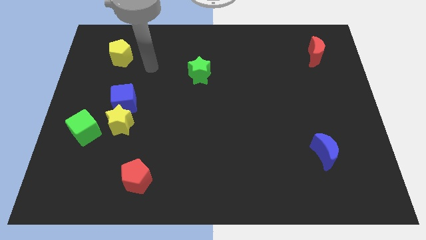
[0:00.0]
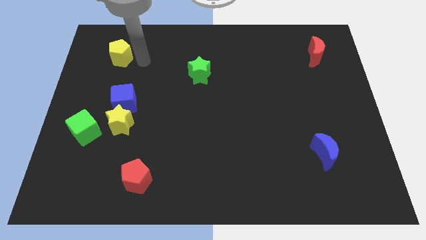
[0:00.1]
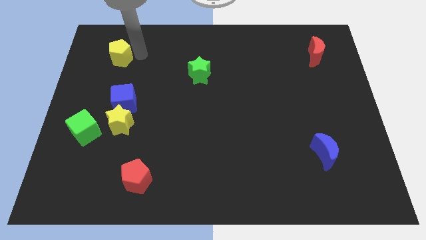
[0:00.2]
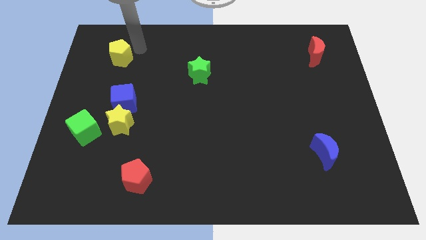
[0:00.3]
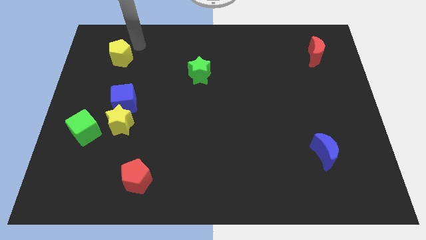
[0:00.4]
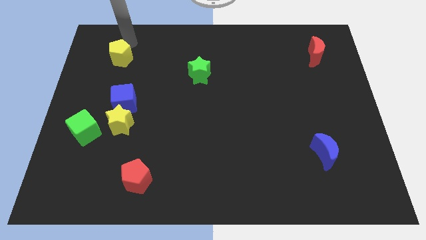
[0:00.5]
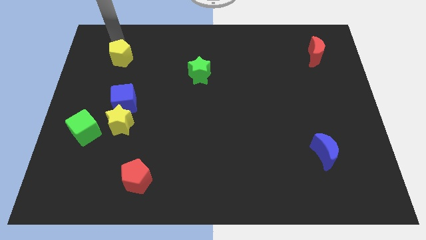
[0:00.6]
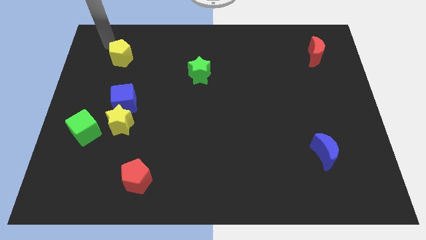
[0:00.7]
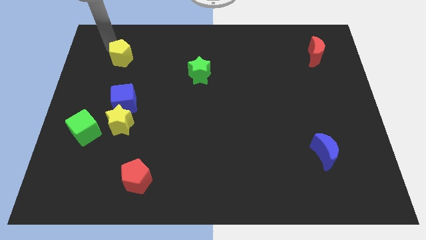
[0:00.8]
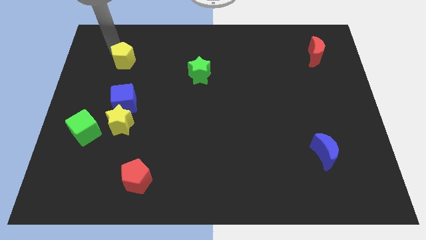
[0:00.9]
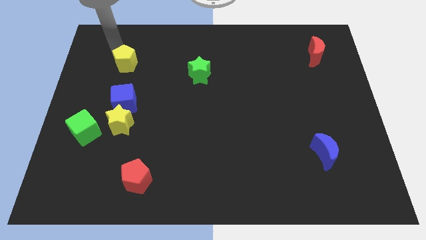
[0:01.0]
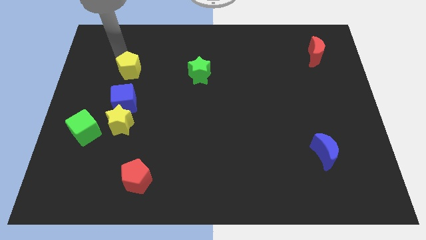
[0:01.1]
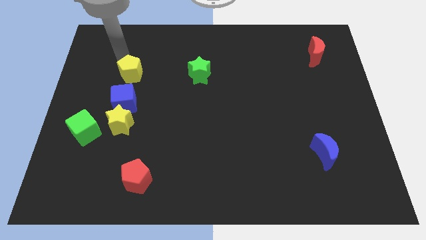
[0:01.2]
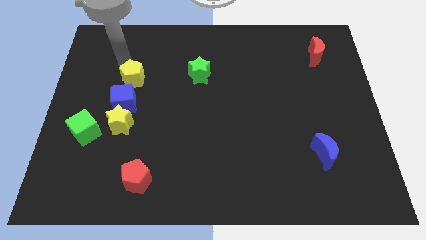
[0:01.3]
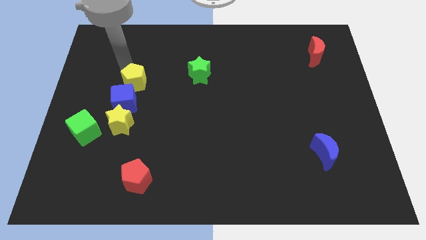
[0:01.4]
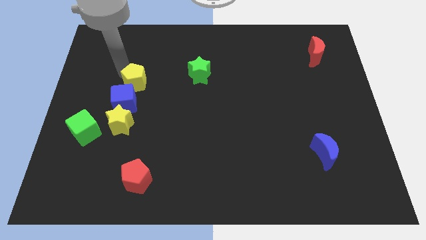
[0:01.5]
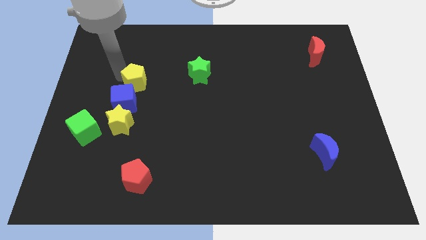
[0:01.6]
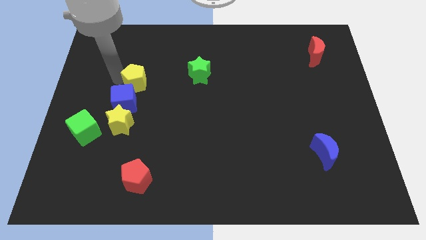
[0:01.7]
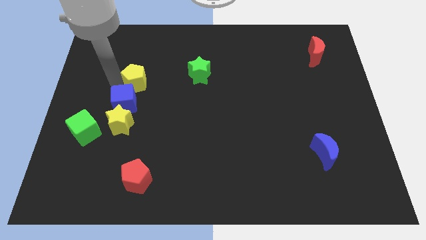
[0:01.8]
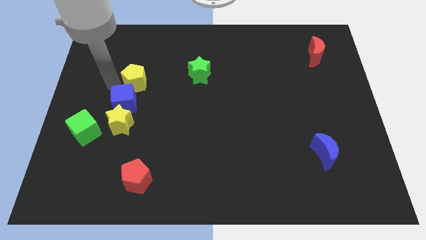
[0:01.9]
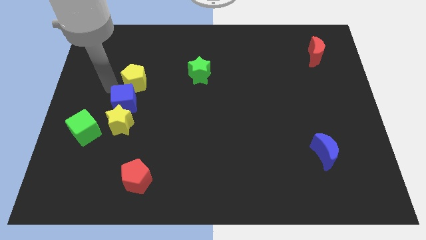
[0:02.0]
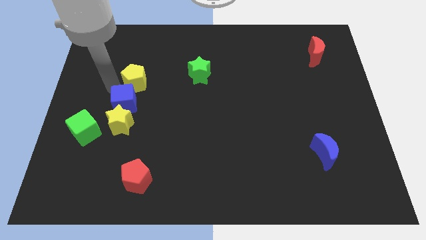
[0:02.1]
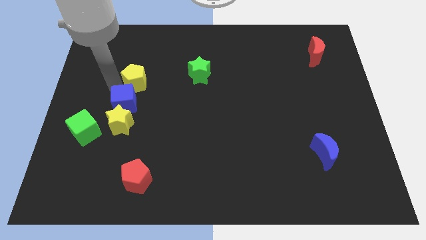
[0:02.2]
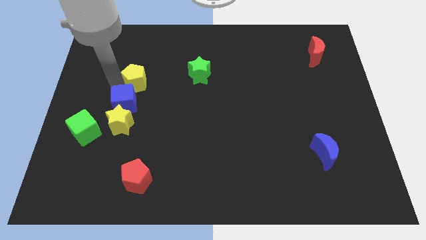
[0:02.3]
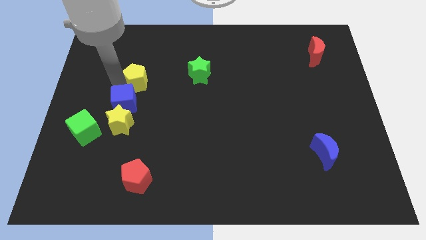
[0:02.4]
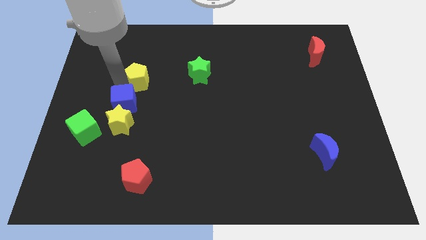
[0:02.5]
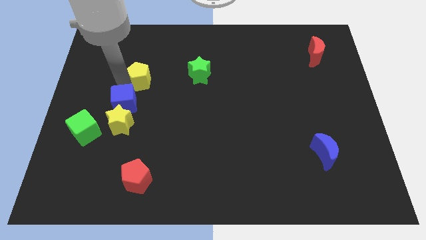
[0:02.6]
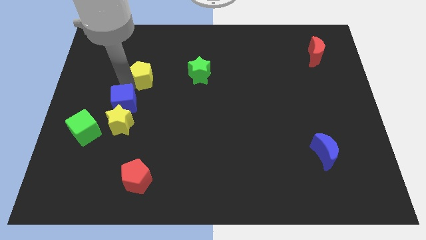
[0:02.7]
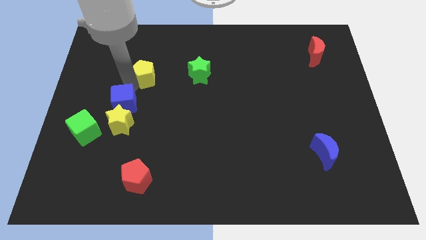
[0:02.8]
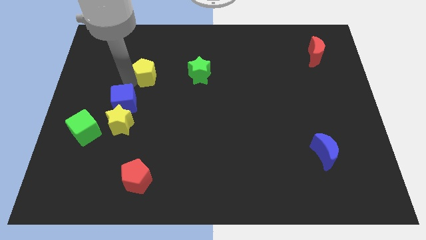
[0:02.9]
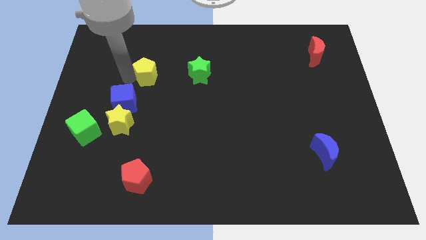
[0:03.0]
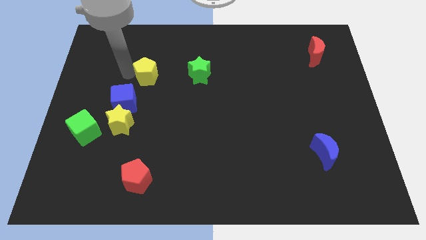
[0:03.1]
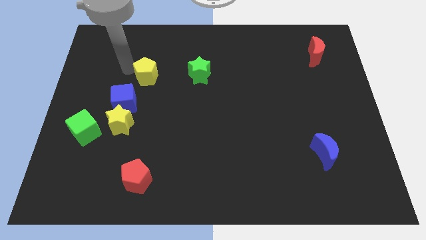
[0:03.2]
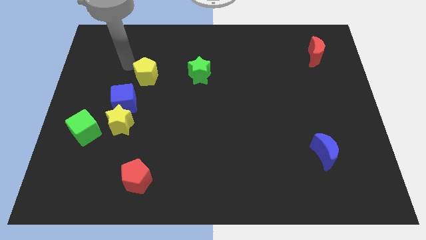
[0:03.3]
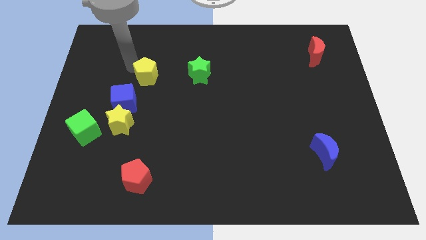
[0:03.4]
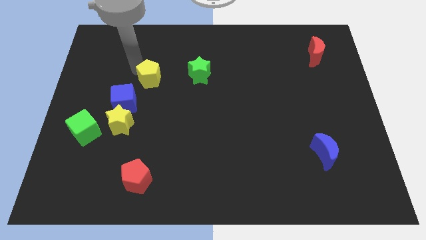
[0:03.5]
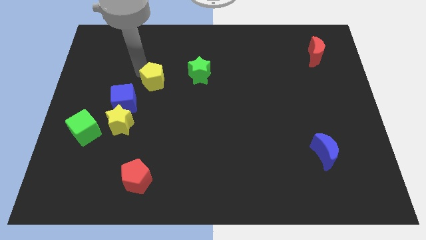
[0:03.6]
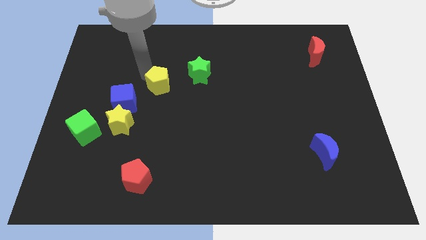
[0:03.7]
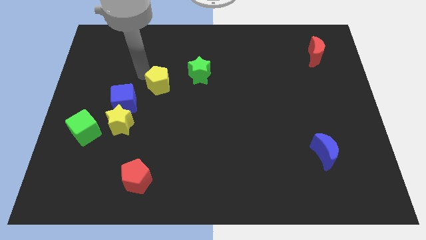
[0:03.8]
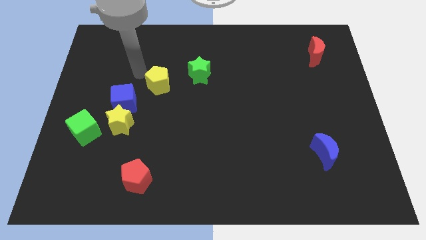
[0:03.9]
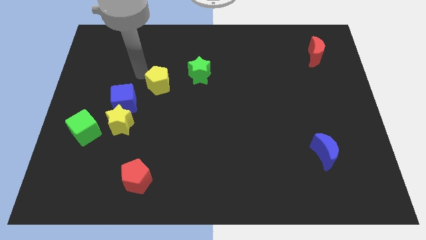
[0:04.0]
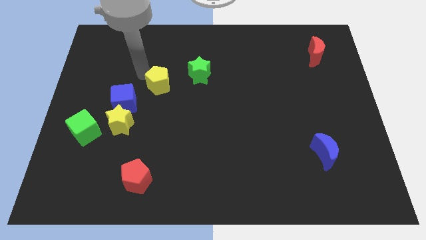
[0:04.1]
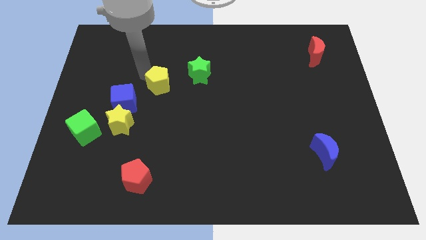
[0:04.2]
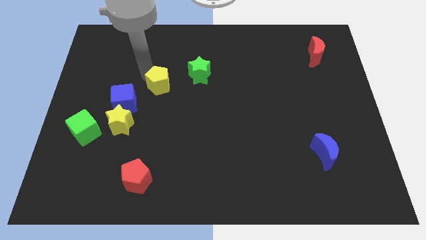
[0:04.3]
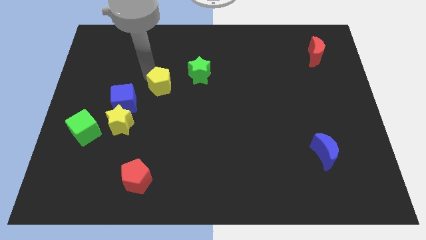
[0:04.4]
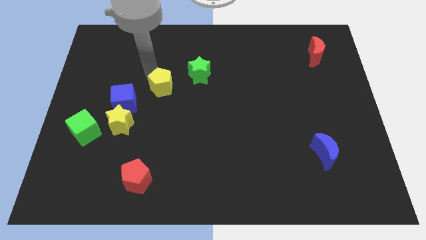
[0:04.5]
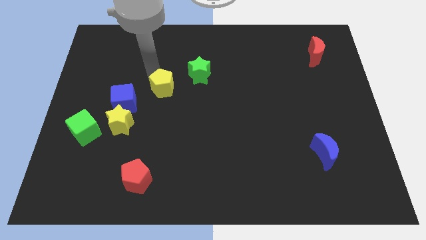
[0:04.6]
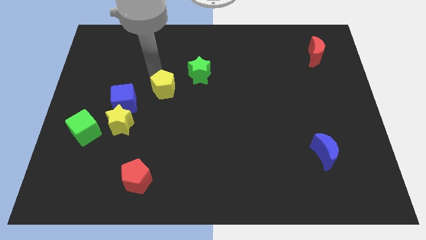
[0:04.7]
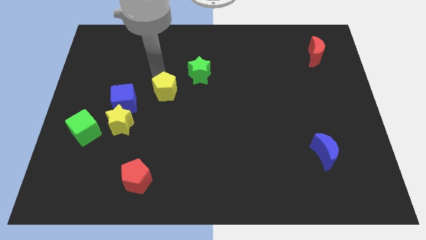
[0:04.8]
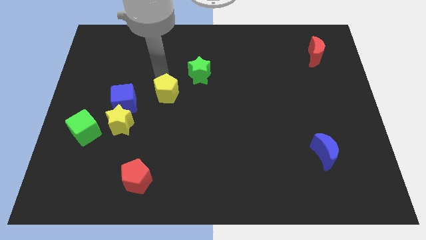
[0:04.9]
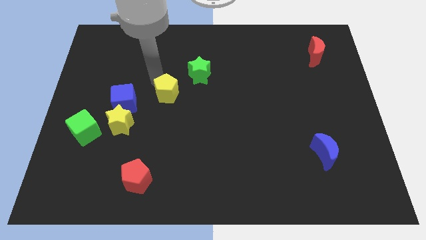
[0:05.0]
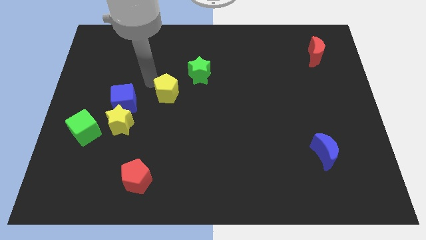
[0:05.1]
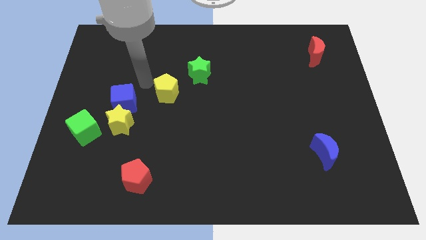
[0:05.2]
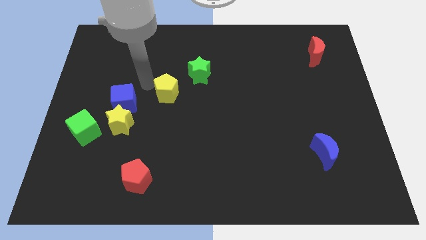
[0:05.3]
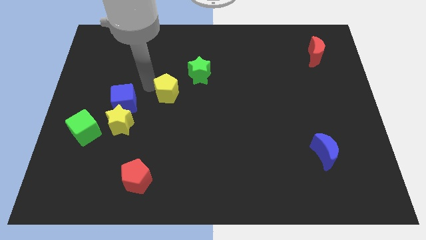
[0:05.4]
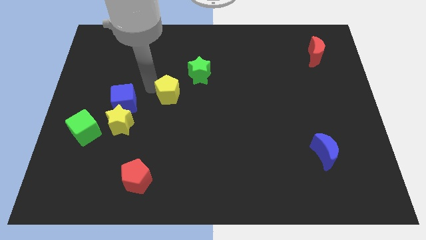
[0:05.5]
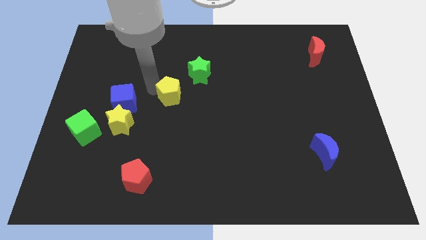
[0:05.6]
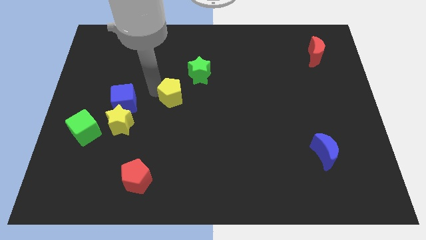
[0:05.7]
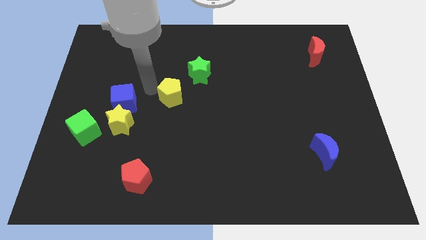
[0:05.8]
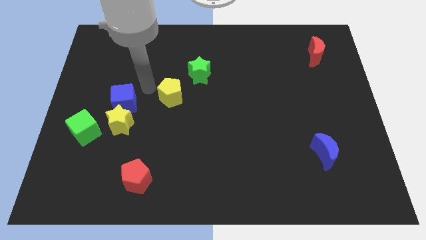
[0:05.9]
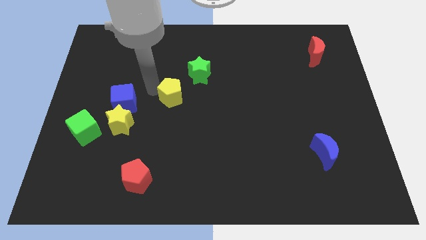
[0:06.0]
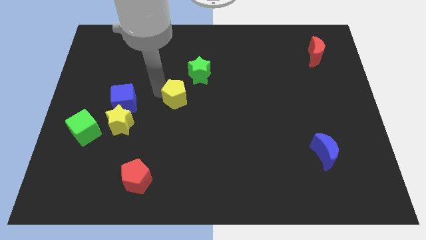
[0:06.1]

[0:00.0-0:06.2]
push the yellow pentagon diagonally down and to the right

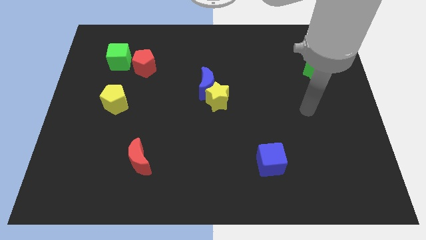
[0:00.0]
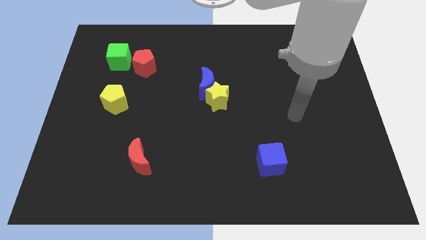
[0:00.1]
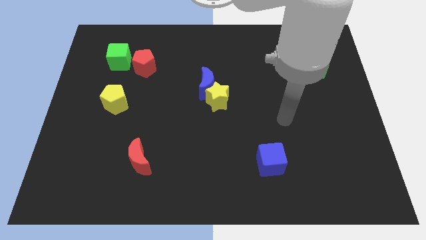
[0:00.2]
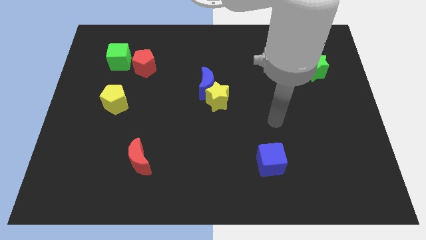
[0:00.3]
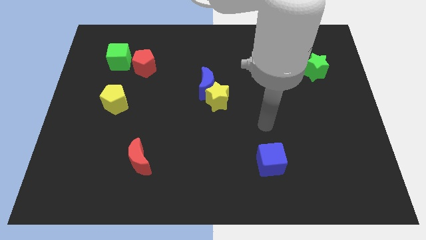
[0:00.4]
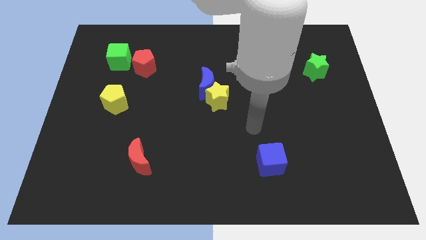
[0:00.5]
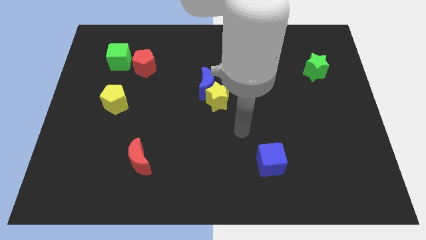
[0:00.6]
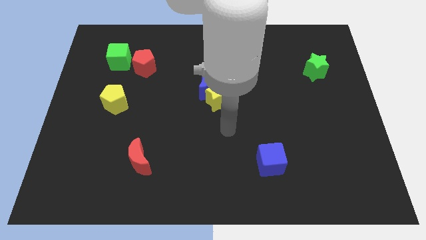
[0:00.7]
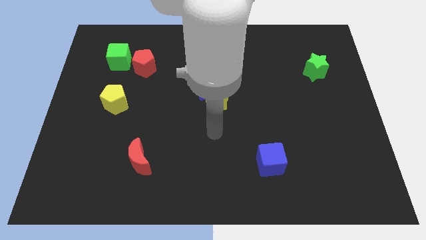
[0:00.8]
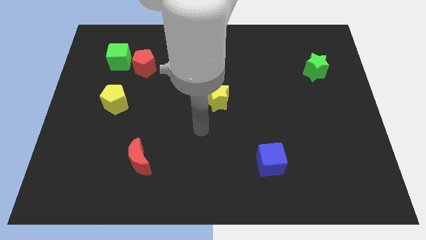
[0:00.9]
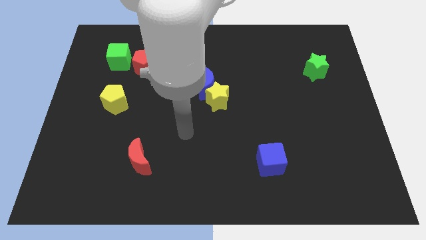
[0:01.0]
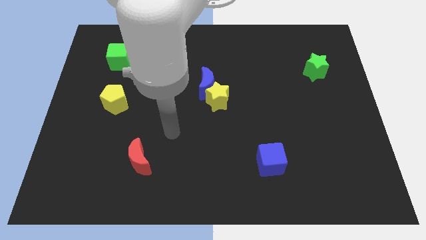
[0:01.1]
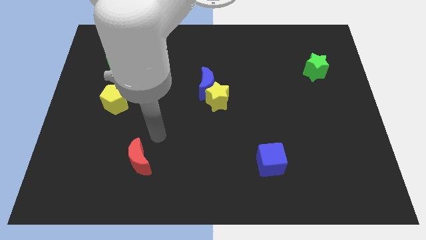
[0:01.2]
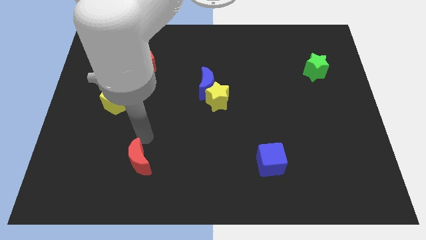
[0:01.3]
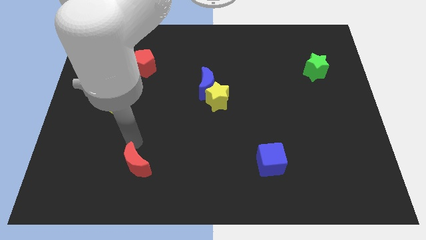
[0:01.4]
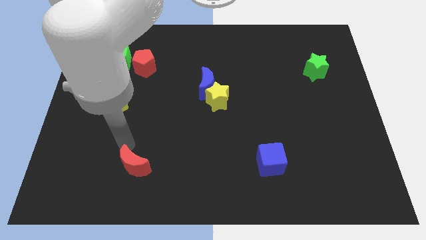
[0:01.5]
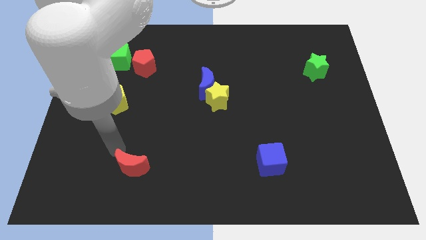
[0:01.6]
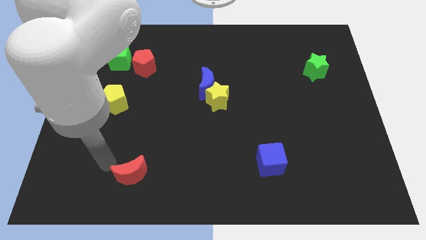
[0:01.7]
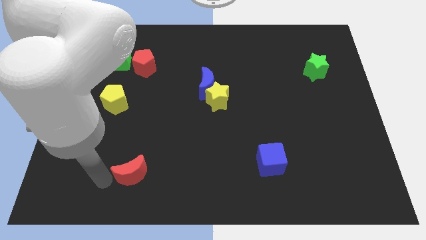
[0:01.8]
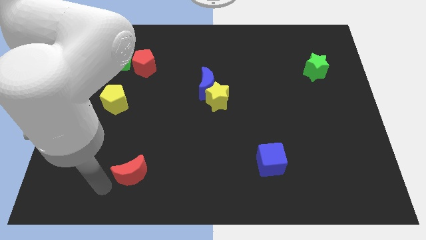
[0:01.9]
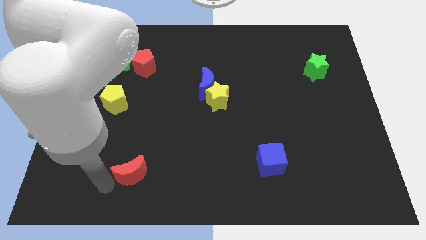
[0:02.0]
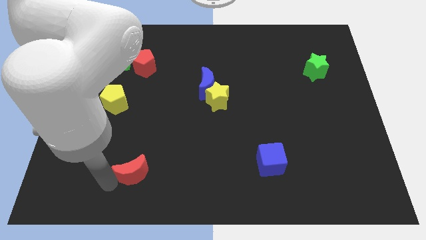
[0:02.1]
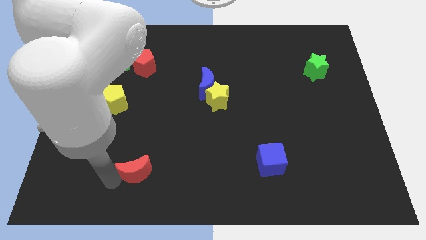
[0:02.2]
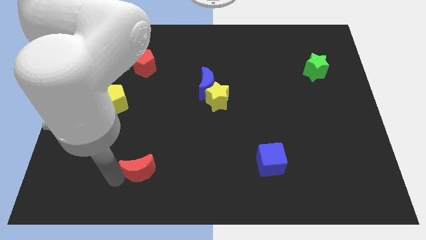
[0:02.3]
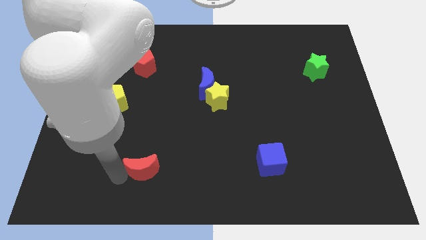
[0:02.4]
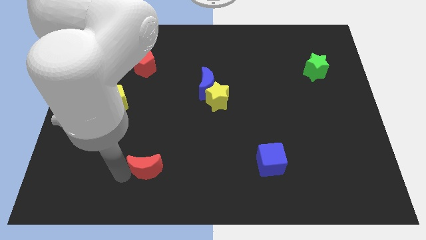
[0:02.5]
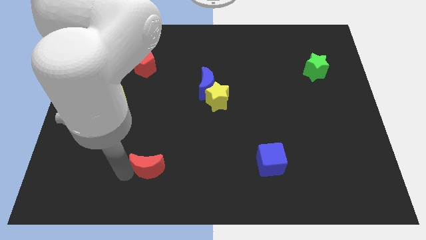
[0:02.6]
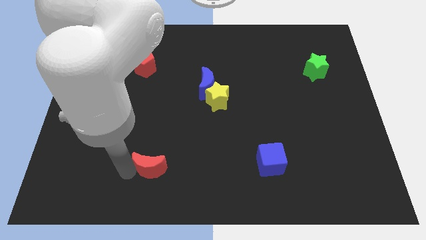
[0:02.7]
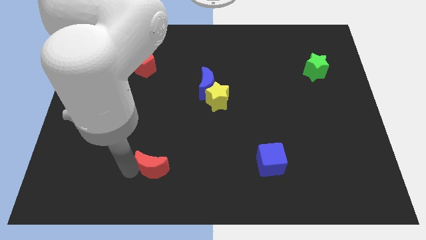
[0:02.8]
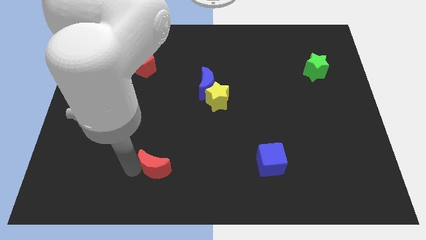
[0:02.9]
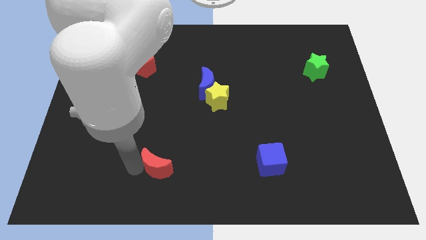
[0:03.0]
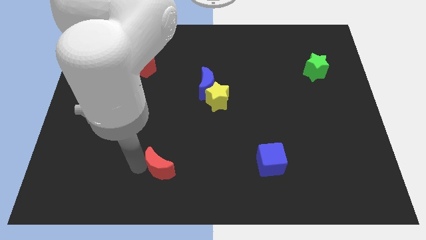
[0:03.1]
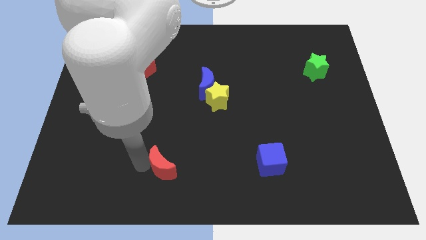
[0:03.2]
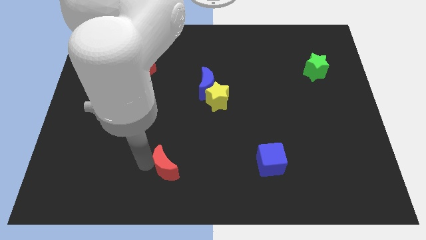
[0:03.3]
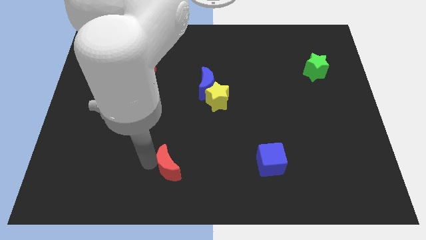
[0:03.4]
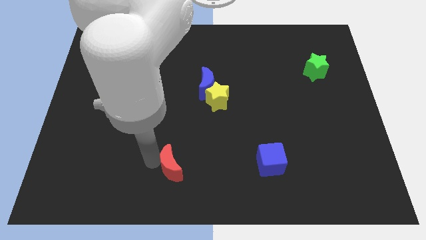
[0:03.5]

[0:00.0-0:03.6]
slightly move the red moon right
